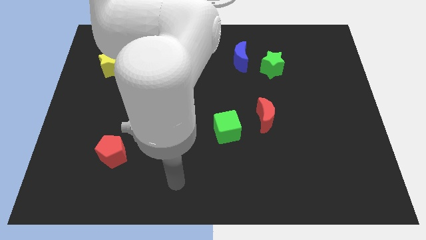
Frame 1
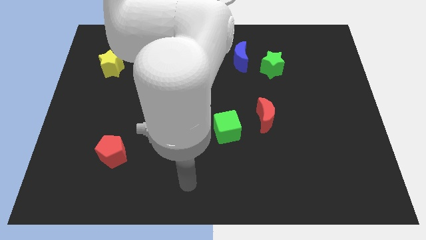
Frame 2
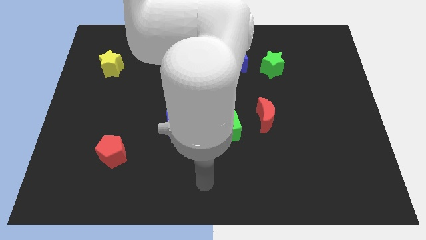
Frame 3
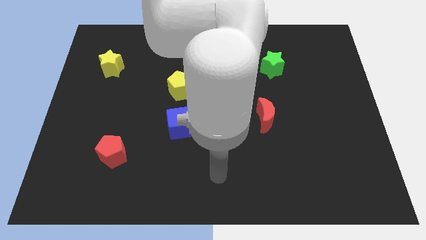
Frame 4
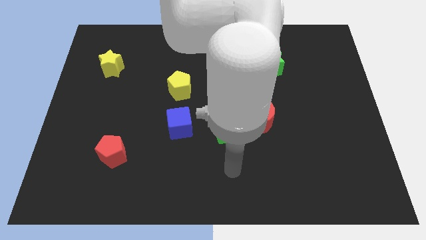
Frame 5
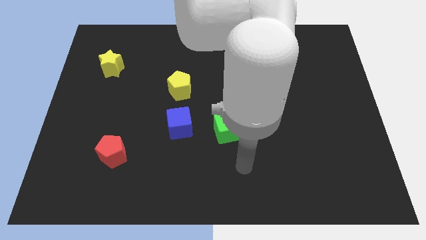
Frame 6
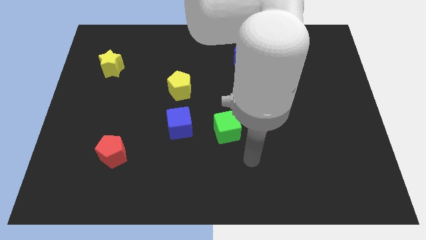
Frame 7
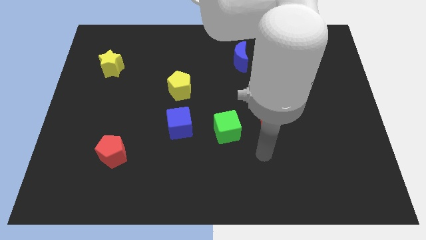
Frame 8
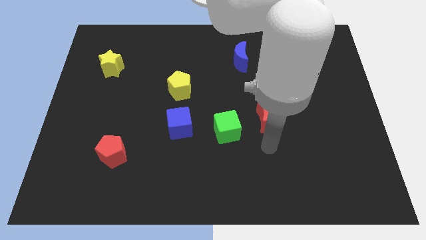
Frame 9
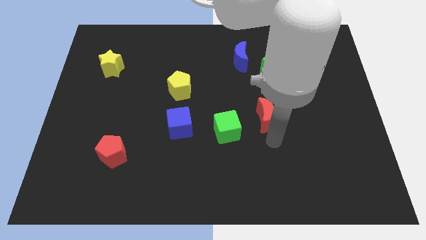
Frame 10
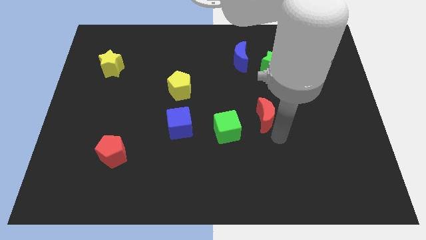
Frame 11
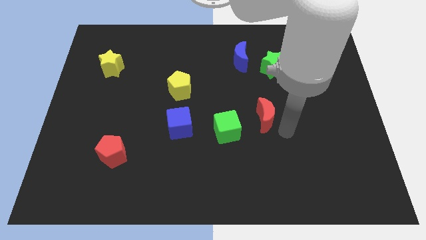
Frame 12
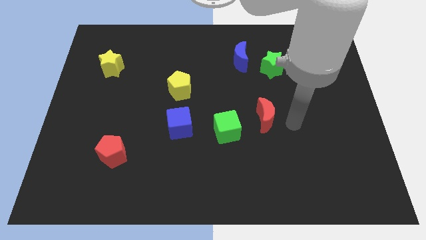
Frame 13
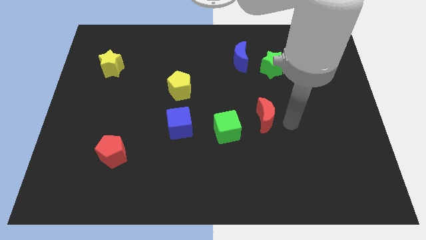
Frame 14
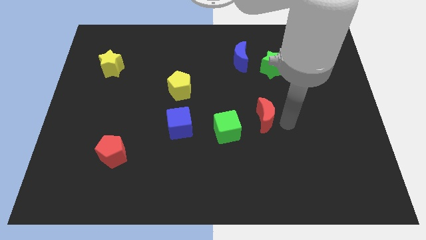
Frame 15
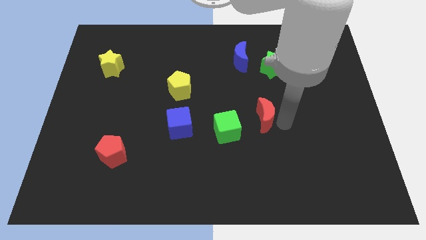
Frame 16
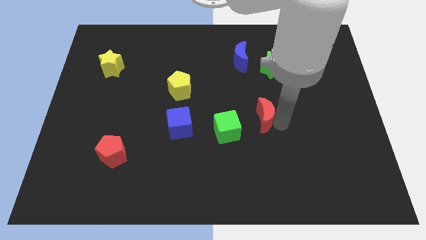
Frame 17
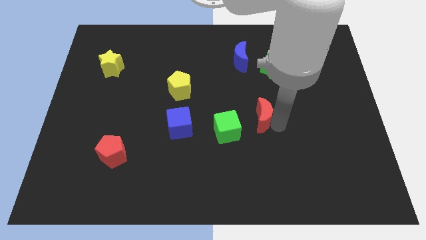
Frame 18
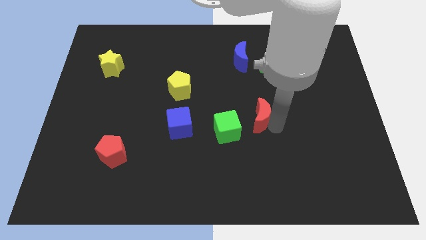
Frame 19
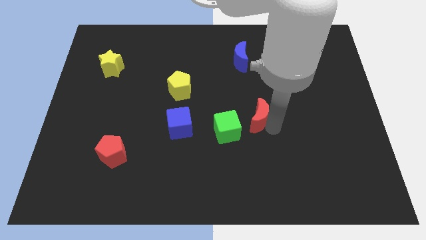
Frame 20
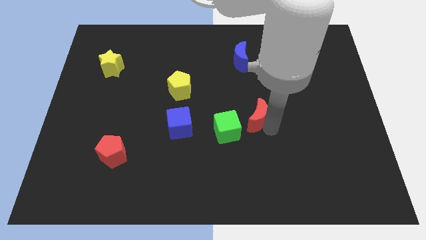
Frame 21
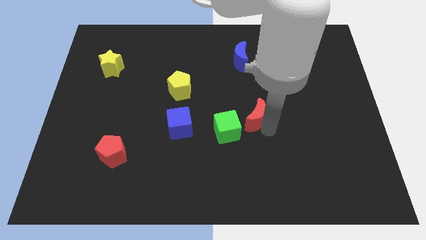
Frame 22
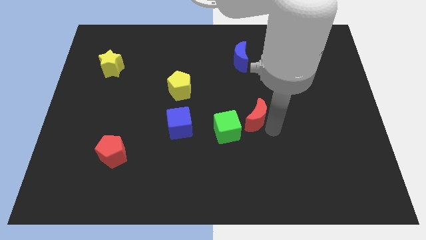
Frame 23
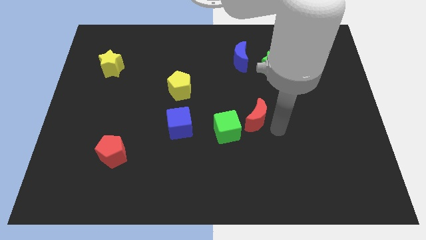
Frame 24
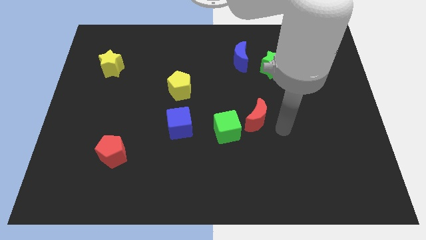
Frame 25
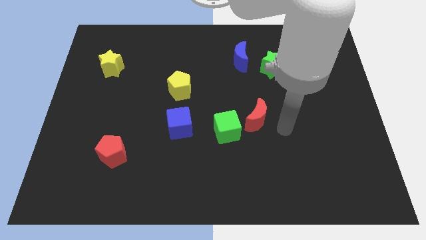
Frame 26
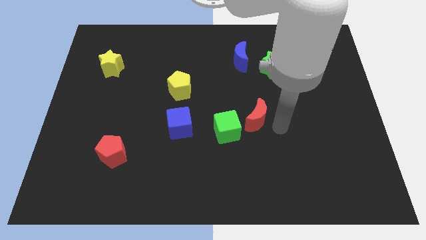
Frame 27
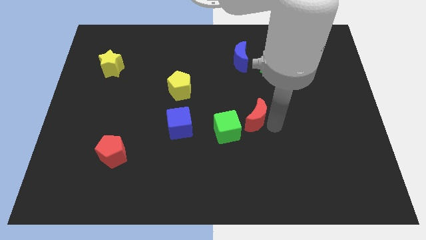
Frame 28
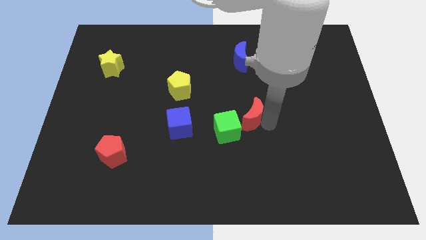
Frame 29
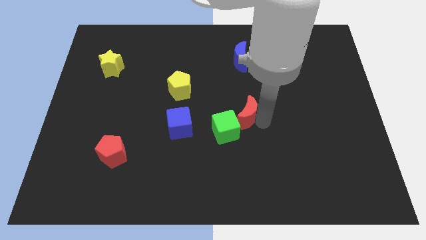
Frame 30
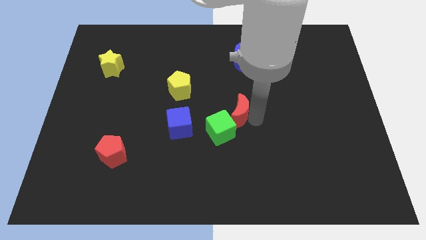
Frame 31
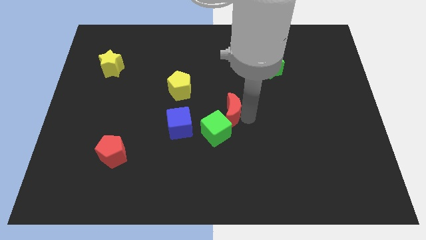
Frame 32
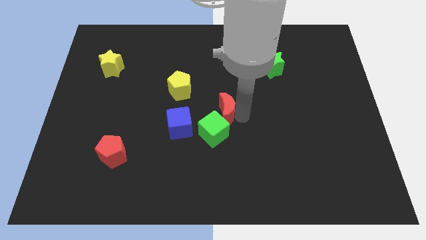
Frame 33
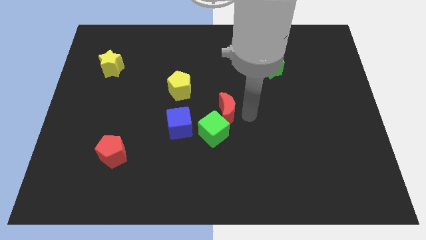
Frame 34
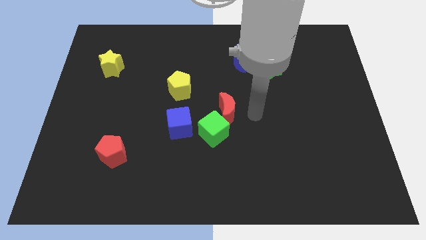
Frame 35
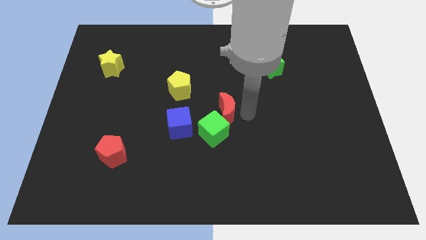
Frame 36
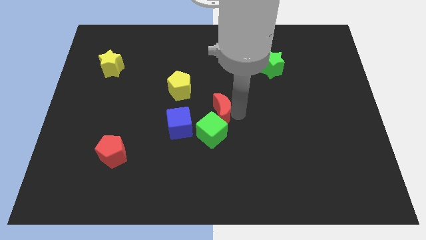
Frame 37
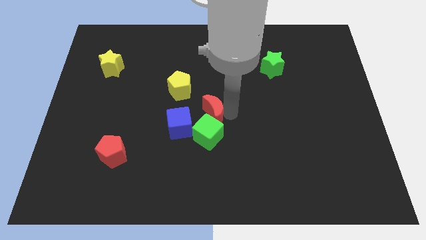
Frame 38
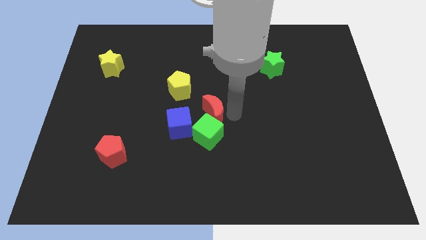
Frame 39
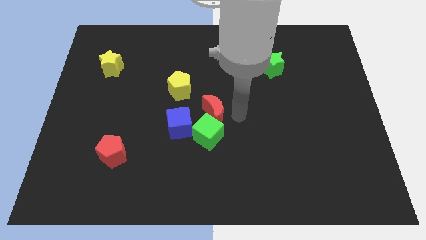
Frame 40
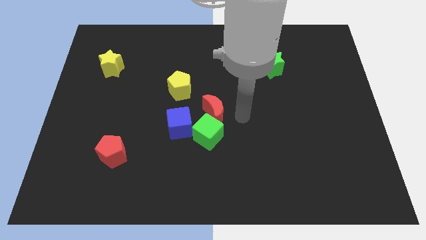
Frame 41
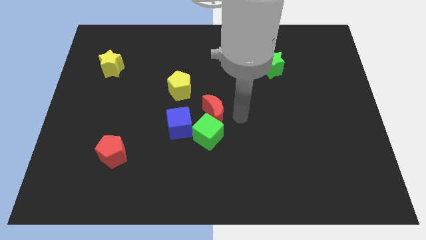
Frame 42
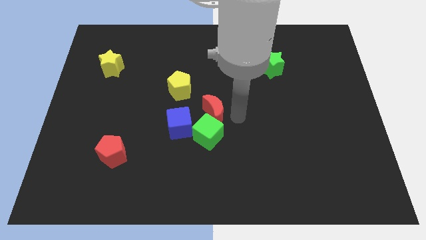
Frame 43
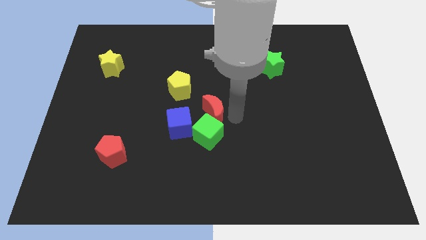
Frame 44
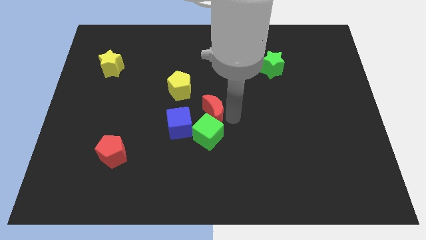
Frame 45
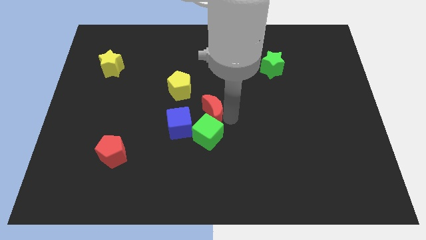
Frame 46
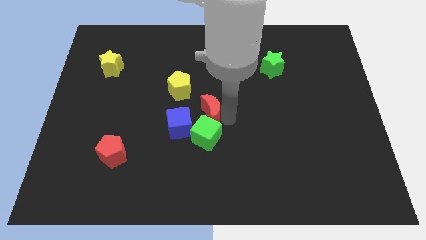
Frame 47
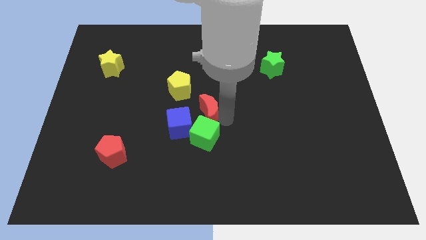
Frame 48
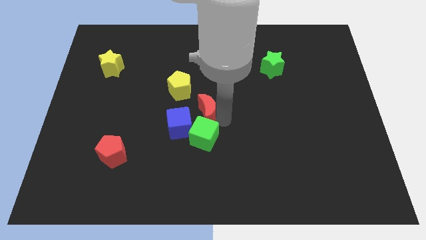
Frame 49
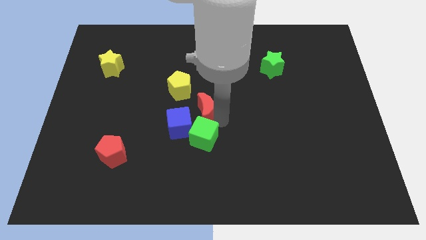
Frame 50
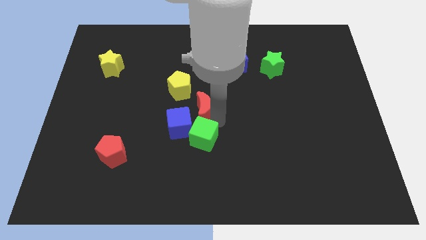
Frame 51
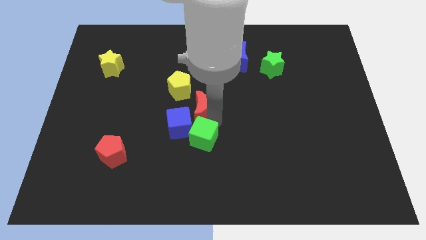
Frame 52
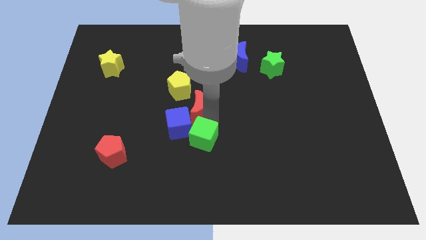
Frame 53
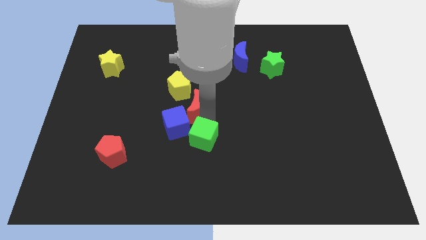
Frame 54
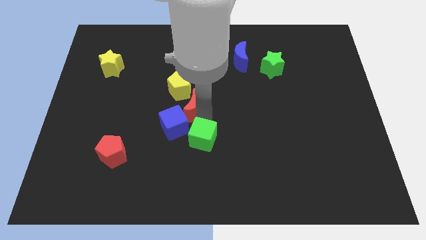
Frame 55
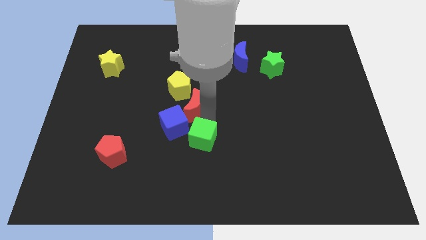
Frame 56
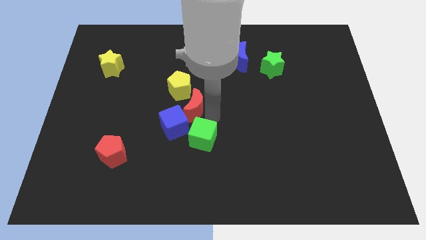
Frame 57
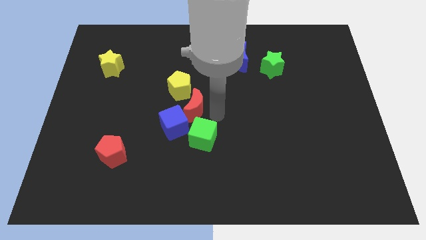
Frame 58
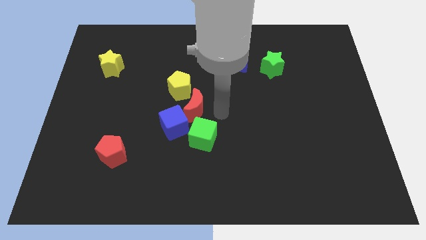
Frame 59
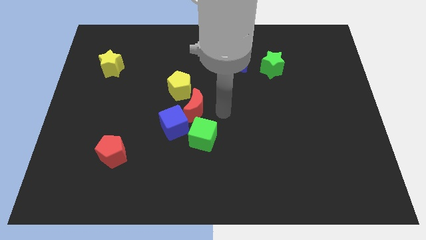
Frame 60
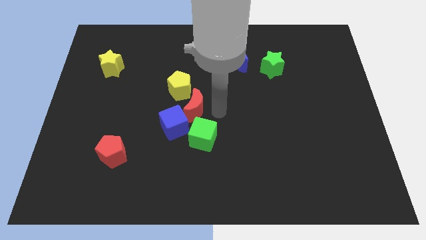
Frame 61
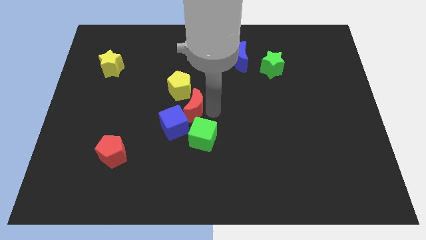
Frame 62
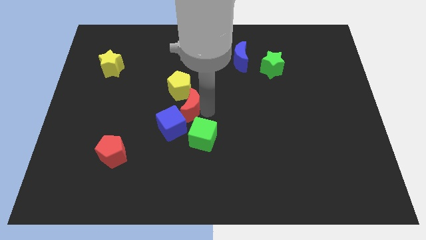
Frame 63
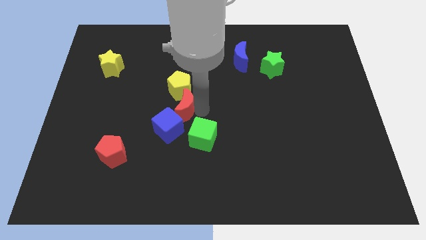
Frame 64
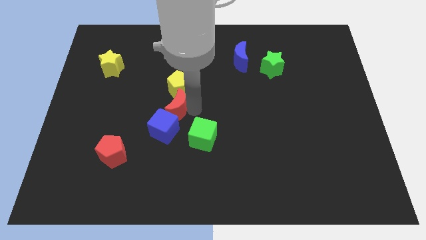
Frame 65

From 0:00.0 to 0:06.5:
slide the red moon left

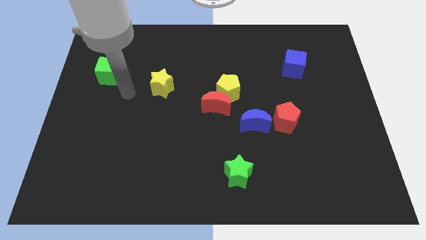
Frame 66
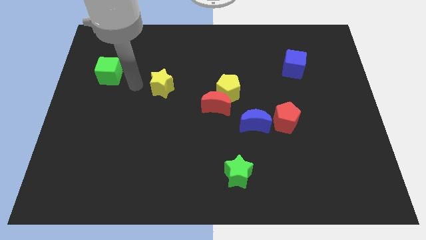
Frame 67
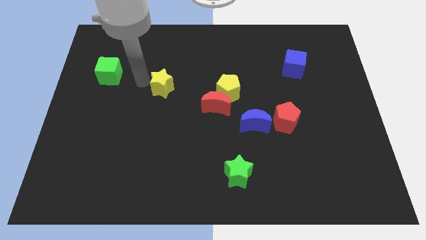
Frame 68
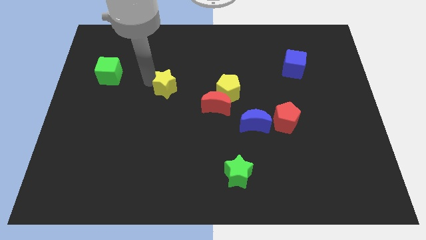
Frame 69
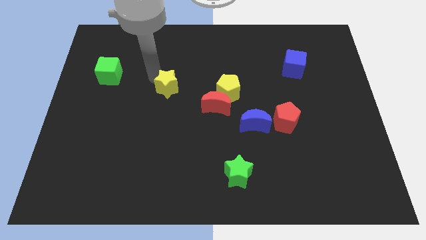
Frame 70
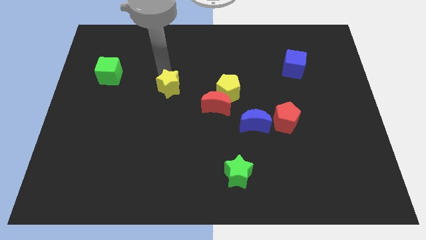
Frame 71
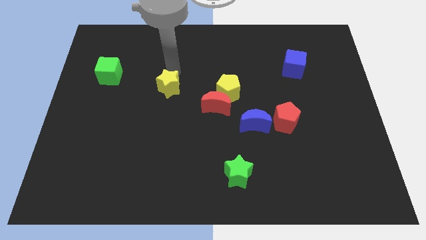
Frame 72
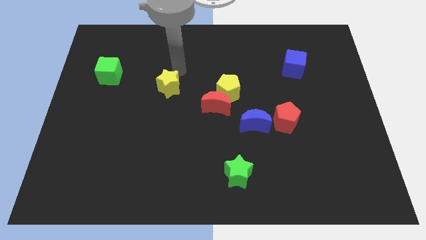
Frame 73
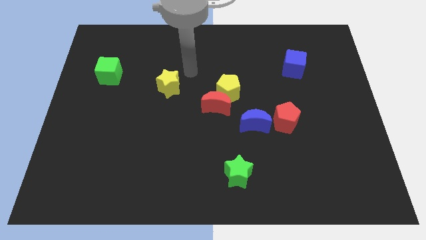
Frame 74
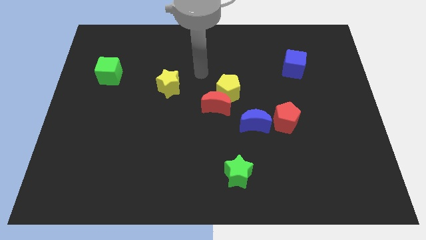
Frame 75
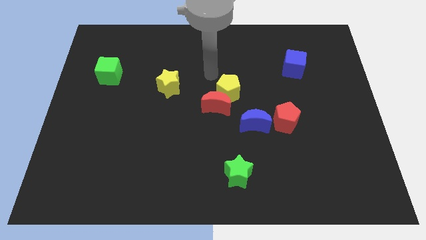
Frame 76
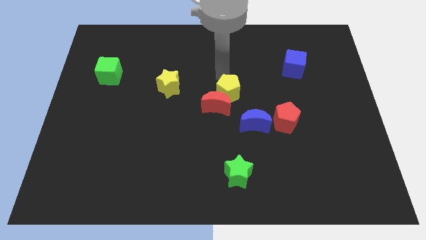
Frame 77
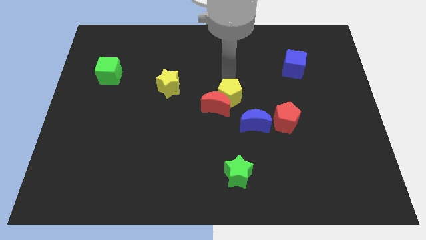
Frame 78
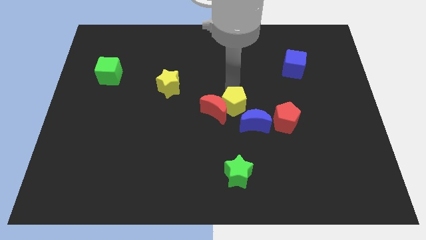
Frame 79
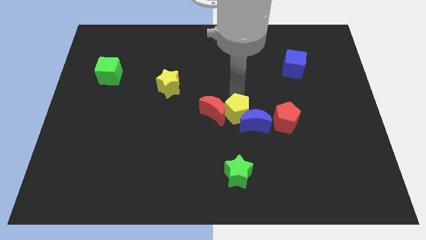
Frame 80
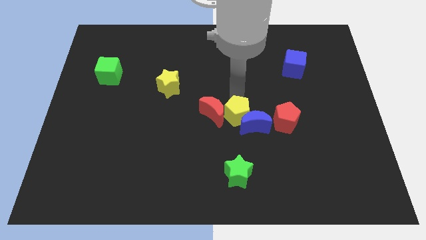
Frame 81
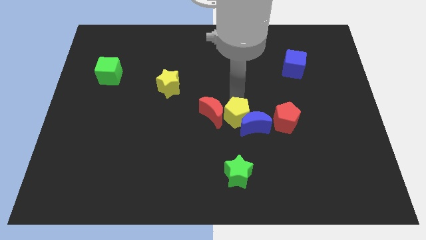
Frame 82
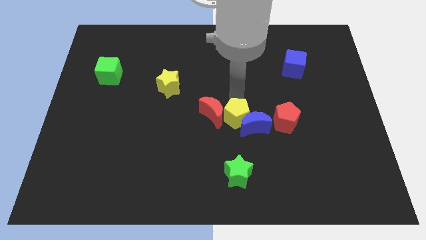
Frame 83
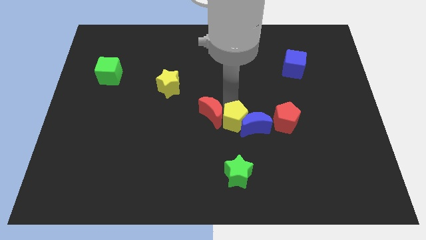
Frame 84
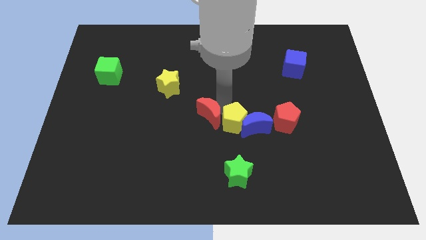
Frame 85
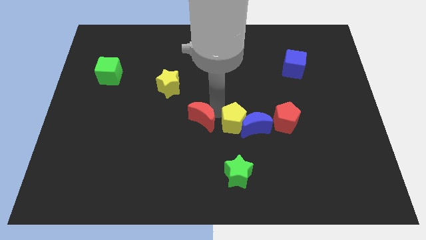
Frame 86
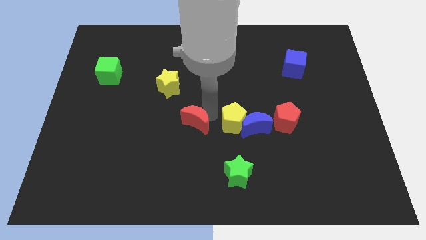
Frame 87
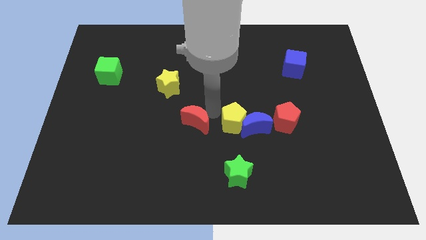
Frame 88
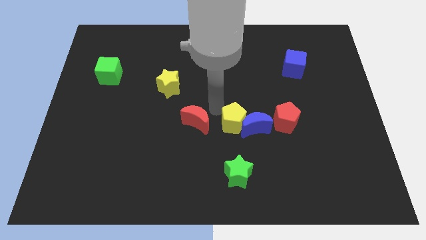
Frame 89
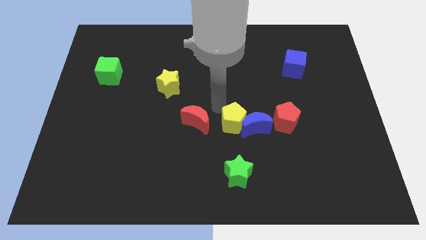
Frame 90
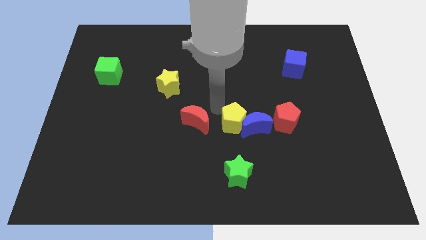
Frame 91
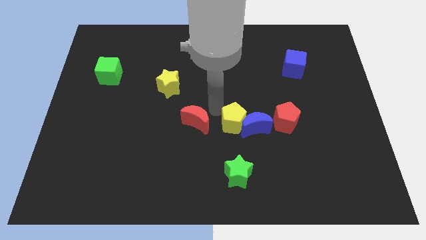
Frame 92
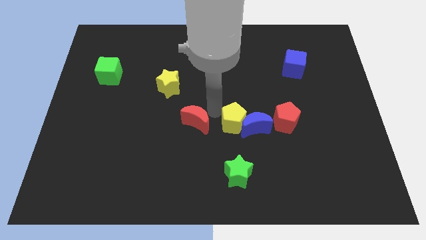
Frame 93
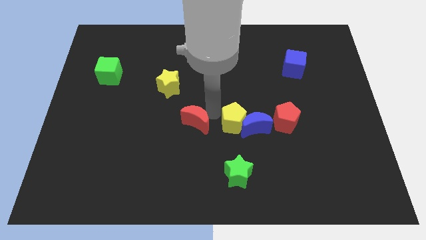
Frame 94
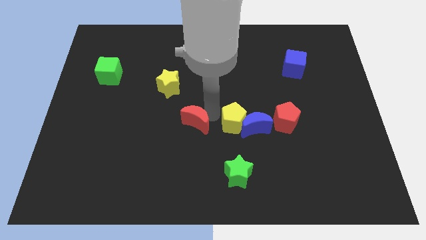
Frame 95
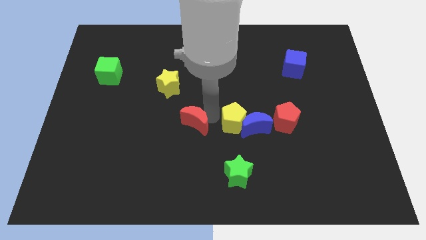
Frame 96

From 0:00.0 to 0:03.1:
slightly push the red moon down and then left
